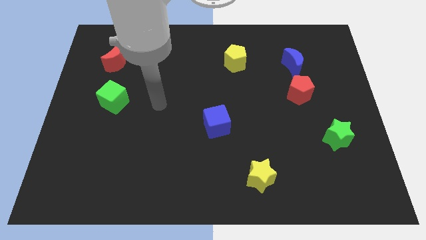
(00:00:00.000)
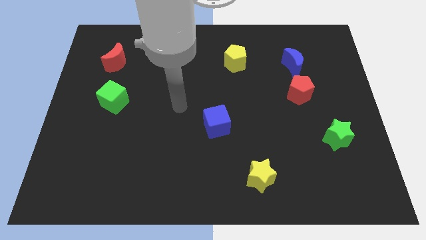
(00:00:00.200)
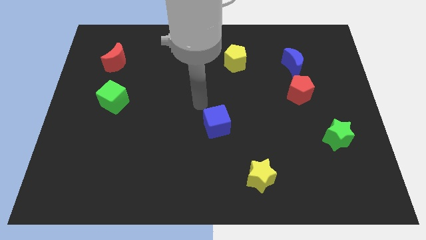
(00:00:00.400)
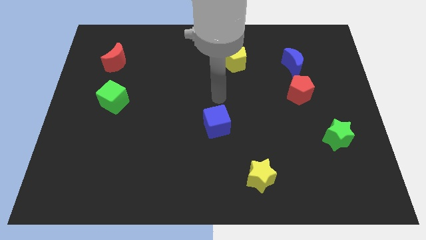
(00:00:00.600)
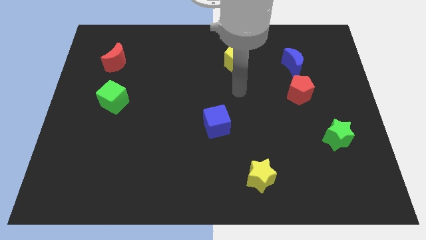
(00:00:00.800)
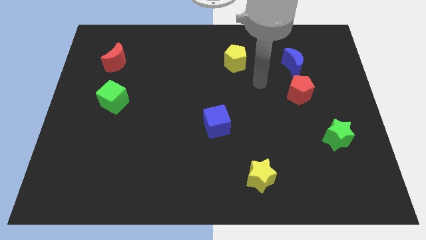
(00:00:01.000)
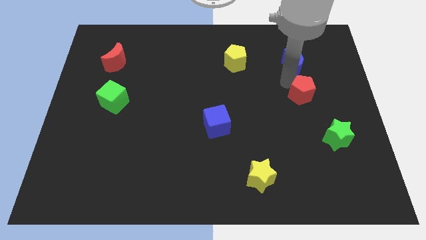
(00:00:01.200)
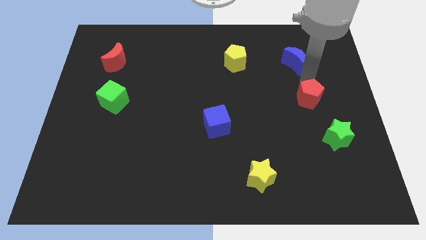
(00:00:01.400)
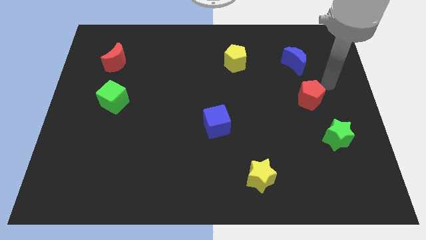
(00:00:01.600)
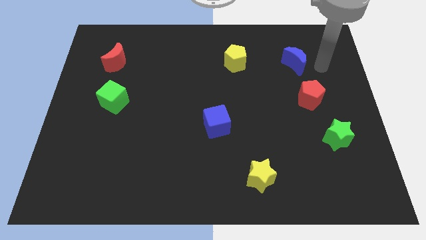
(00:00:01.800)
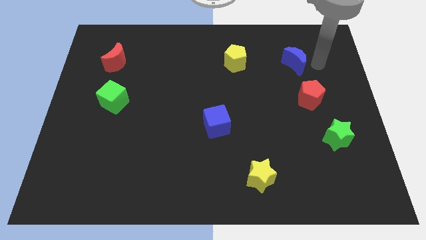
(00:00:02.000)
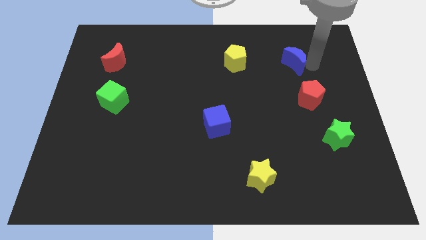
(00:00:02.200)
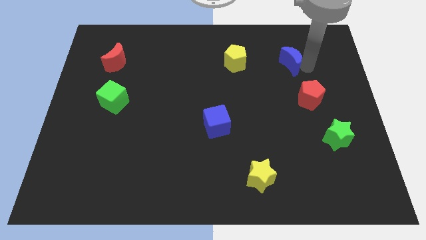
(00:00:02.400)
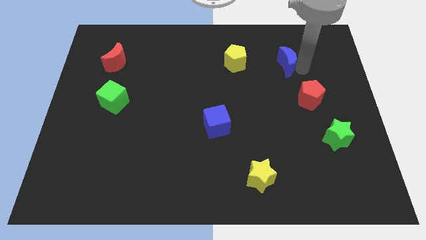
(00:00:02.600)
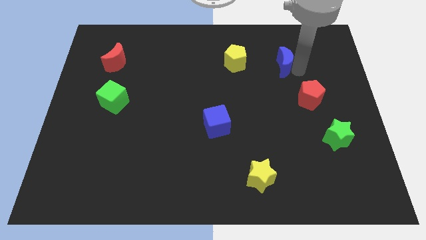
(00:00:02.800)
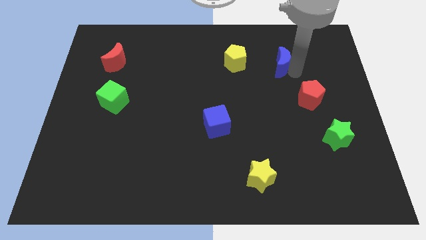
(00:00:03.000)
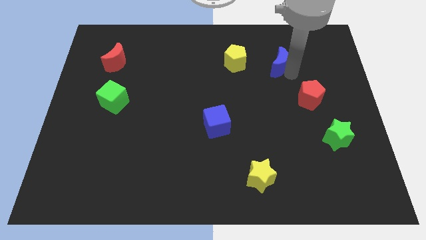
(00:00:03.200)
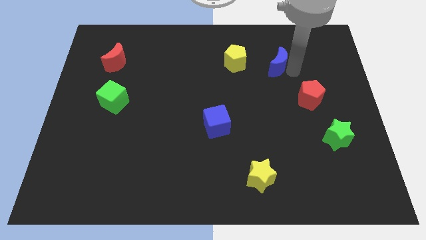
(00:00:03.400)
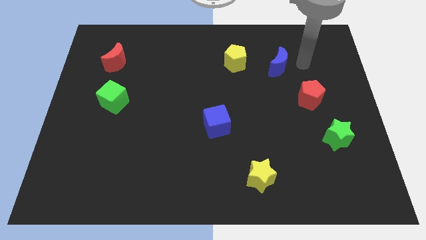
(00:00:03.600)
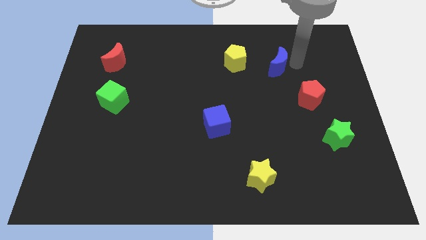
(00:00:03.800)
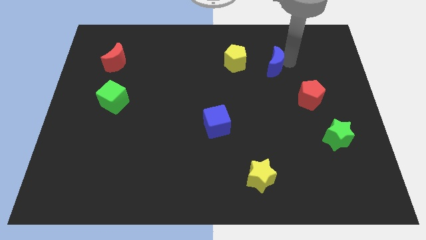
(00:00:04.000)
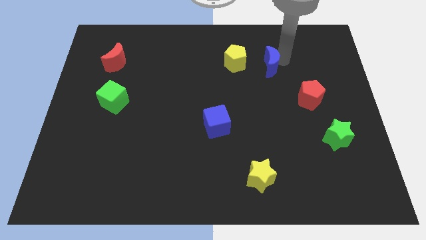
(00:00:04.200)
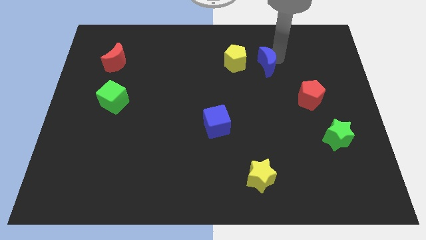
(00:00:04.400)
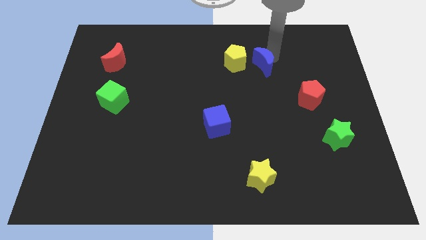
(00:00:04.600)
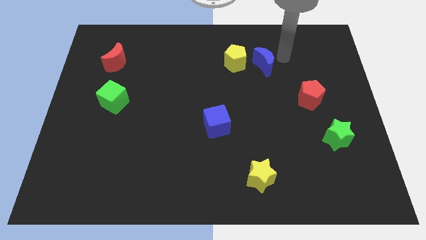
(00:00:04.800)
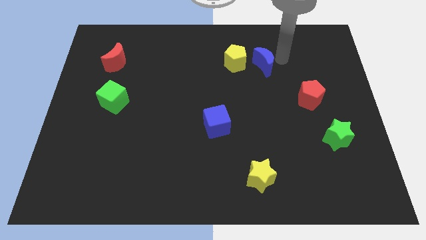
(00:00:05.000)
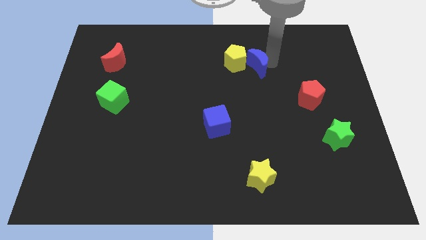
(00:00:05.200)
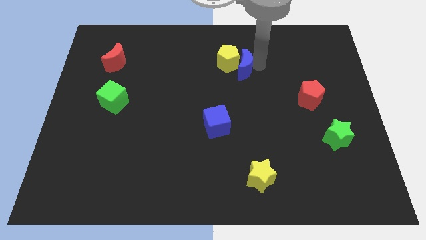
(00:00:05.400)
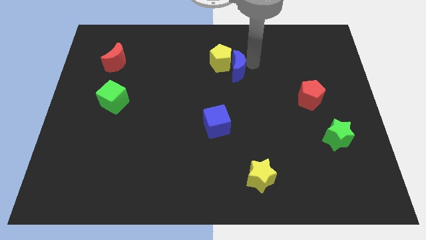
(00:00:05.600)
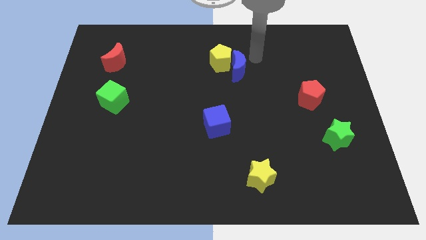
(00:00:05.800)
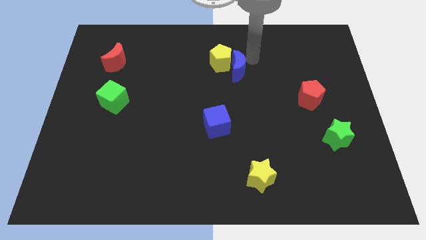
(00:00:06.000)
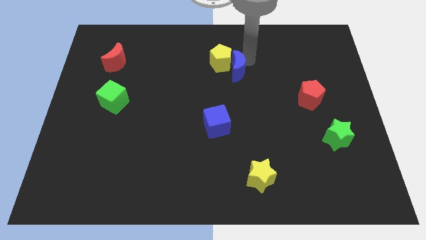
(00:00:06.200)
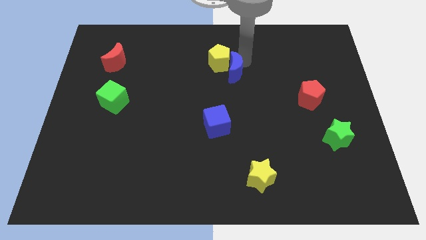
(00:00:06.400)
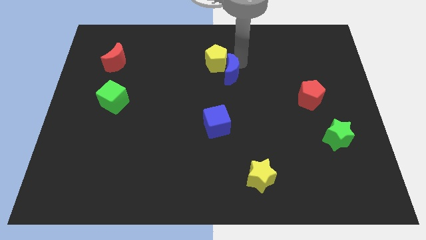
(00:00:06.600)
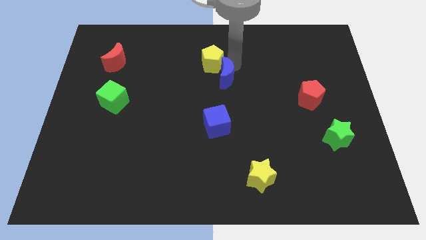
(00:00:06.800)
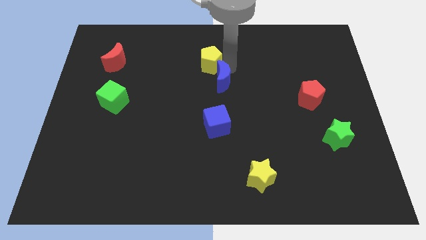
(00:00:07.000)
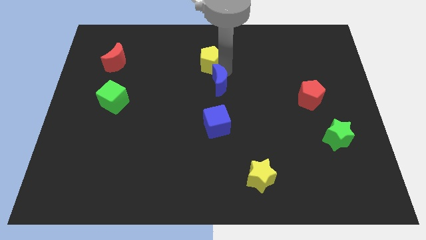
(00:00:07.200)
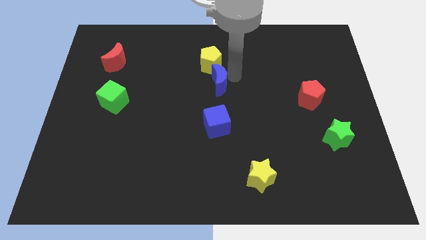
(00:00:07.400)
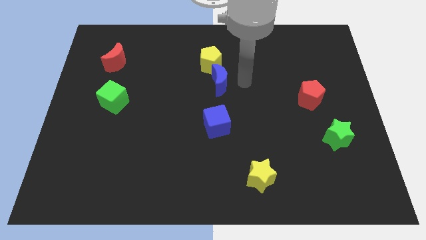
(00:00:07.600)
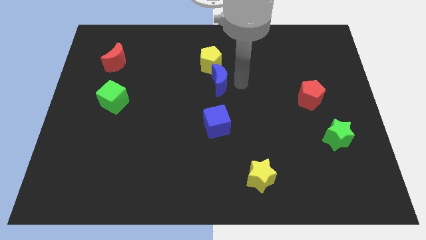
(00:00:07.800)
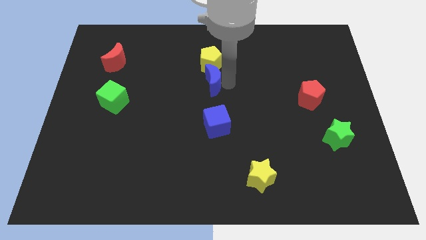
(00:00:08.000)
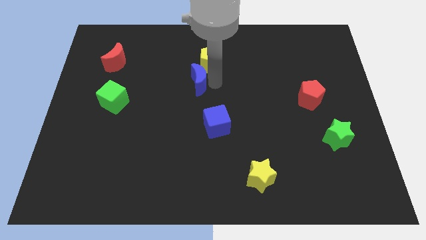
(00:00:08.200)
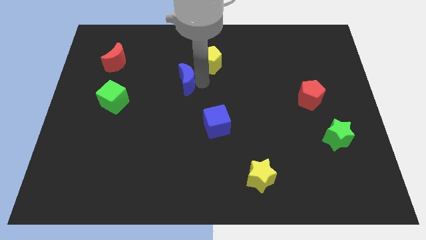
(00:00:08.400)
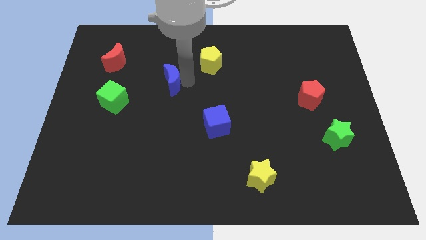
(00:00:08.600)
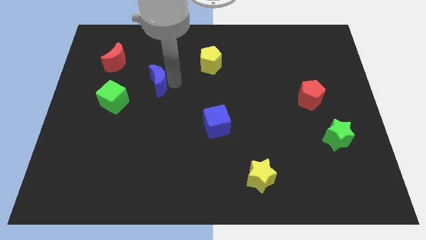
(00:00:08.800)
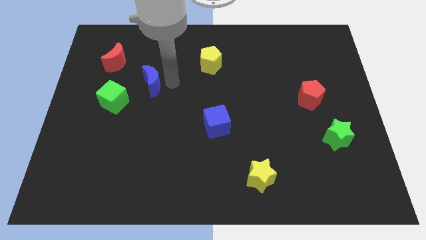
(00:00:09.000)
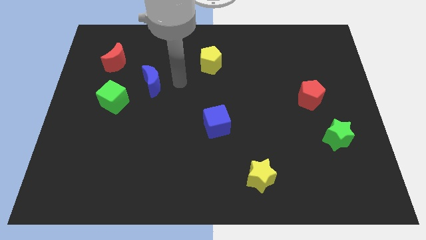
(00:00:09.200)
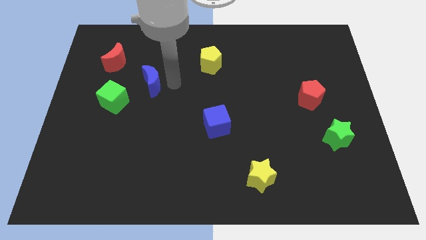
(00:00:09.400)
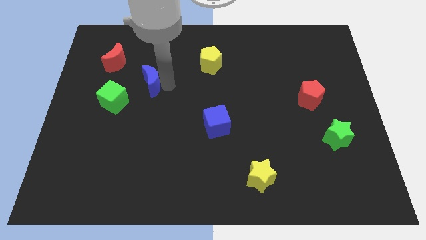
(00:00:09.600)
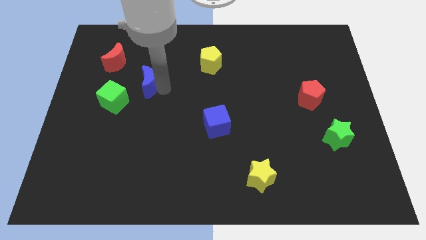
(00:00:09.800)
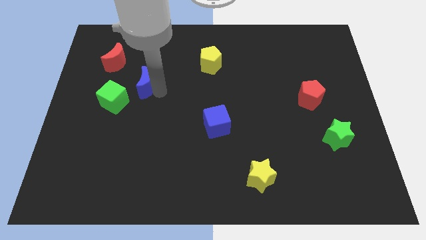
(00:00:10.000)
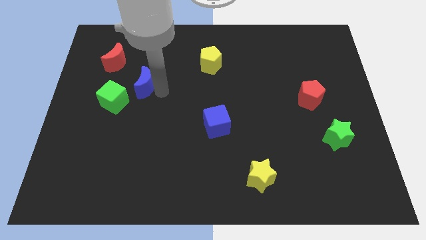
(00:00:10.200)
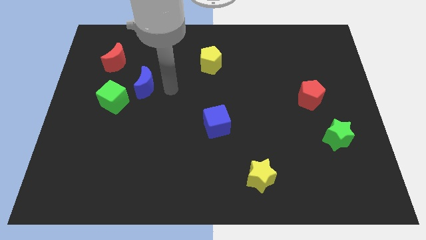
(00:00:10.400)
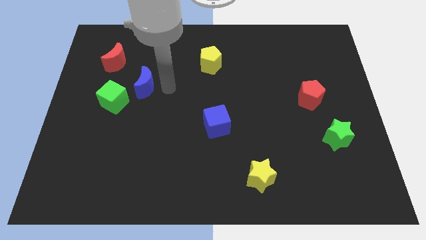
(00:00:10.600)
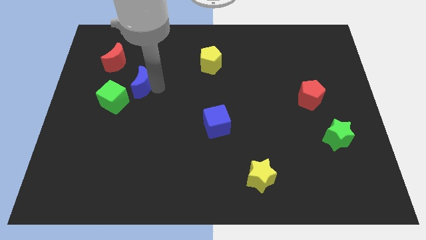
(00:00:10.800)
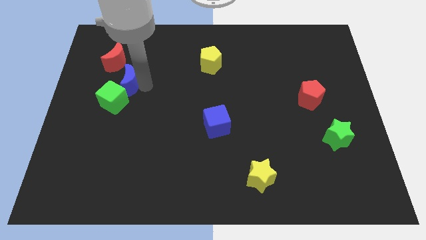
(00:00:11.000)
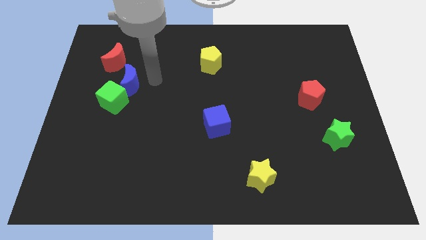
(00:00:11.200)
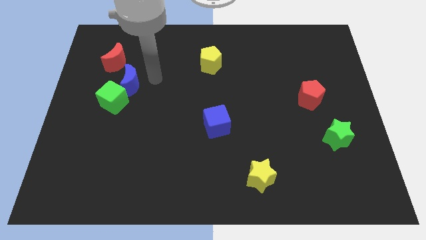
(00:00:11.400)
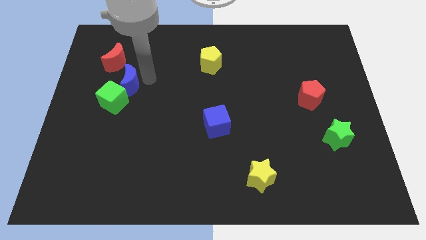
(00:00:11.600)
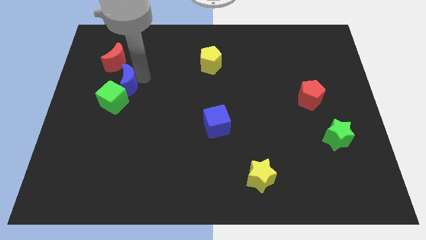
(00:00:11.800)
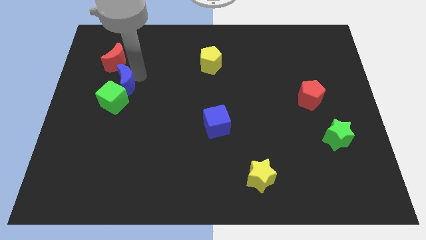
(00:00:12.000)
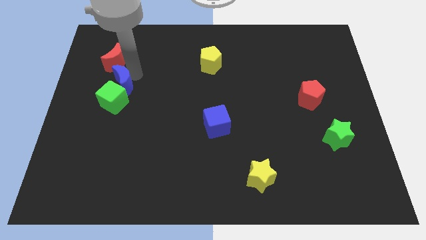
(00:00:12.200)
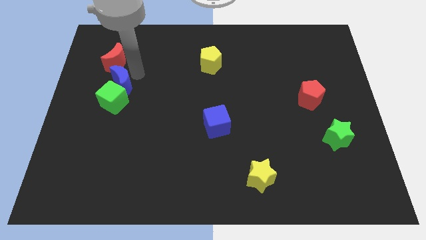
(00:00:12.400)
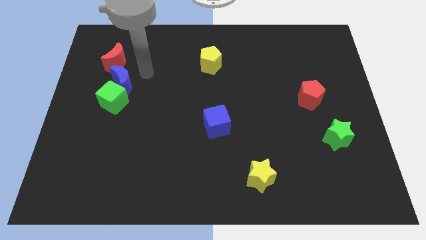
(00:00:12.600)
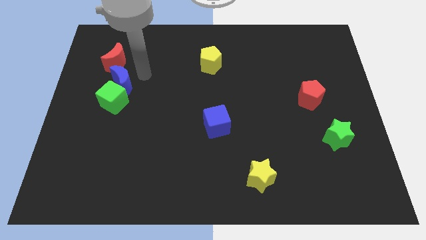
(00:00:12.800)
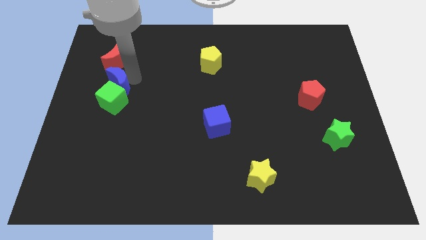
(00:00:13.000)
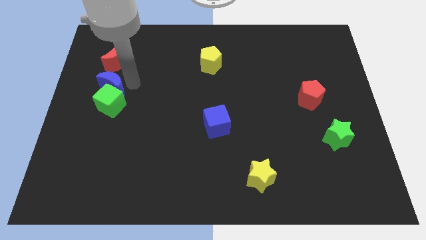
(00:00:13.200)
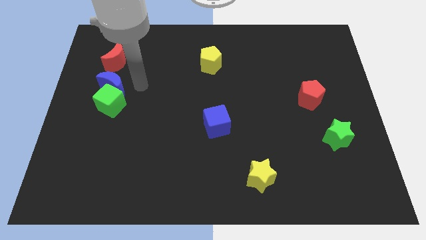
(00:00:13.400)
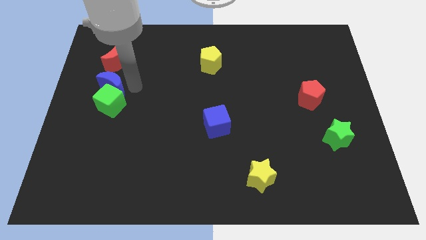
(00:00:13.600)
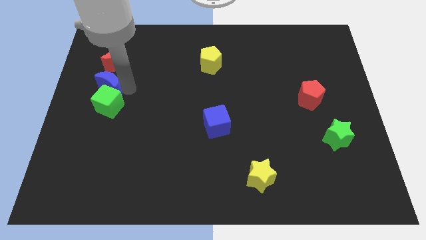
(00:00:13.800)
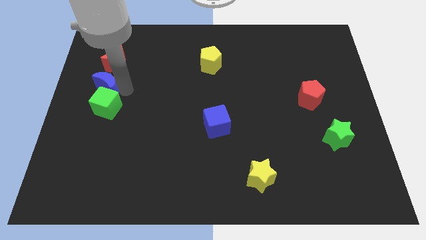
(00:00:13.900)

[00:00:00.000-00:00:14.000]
slide the blue moon to the left side of the board
